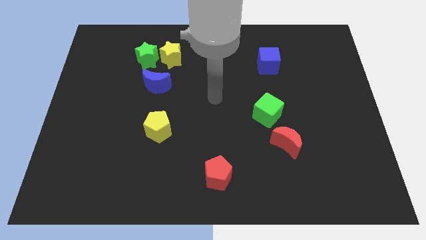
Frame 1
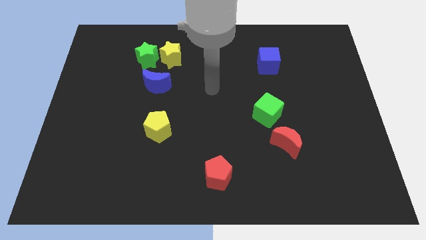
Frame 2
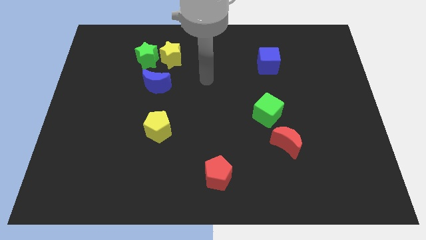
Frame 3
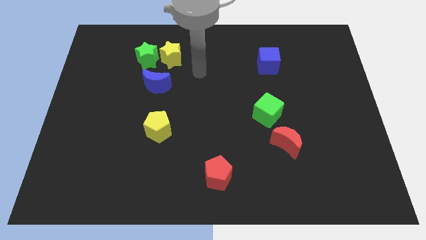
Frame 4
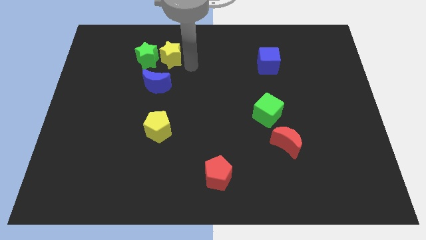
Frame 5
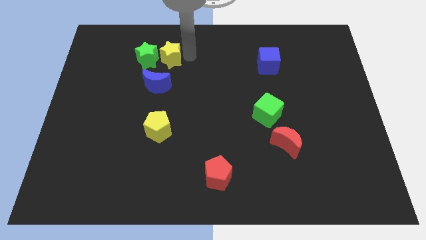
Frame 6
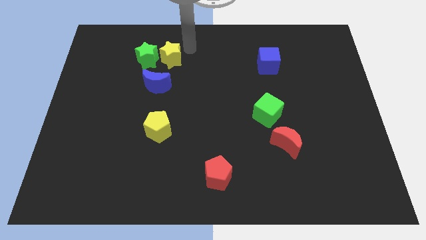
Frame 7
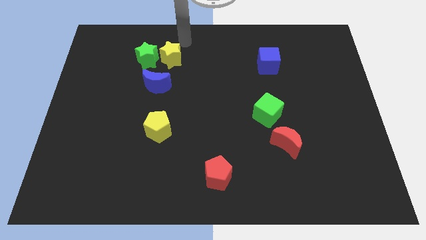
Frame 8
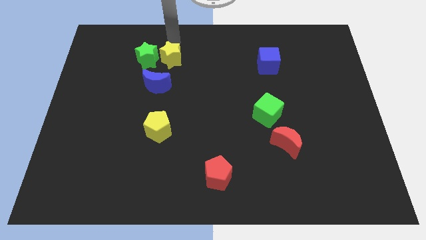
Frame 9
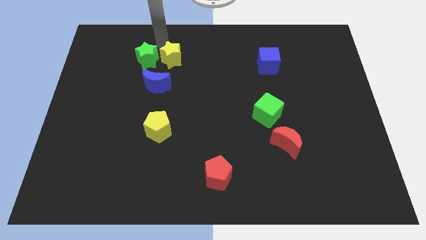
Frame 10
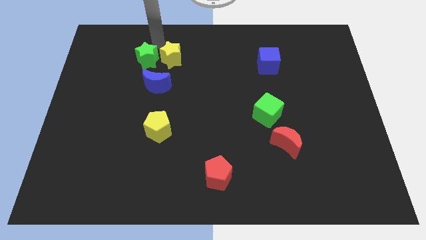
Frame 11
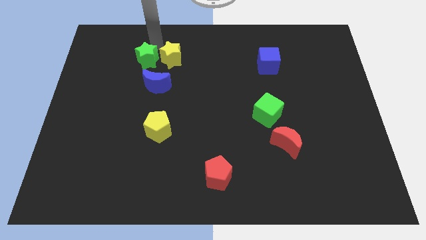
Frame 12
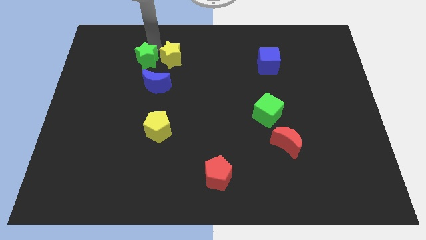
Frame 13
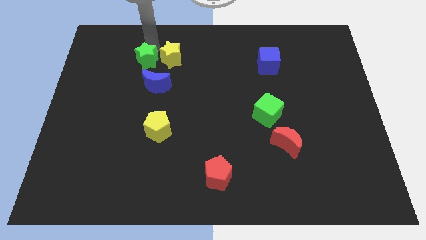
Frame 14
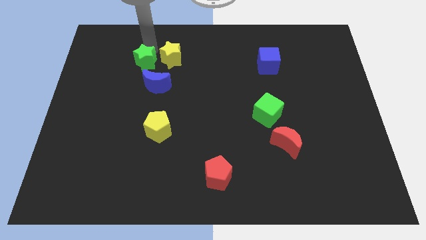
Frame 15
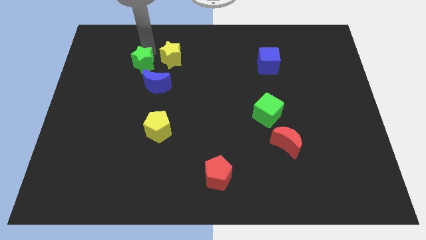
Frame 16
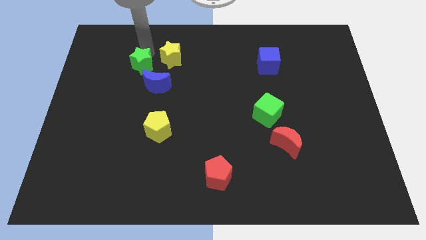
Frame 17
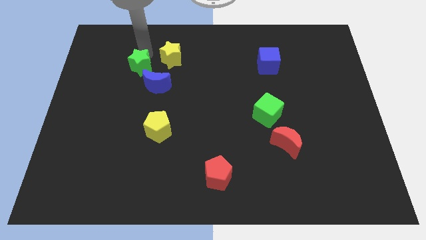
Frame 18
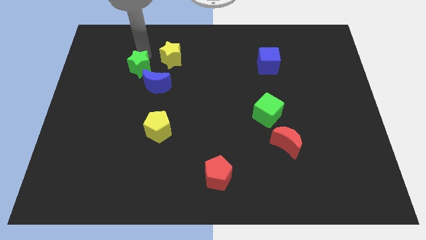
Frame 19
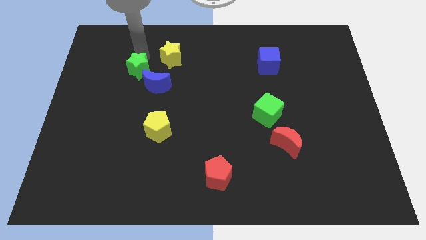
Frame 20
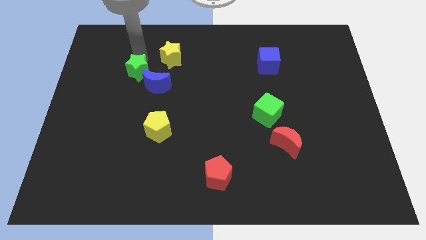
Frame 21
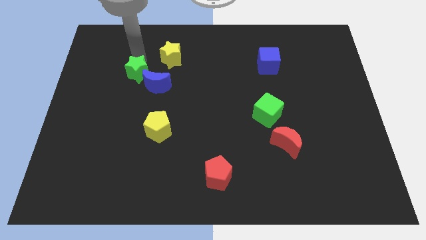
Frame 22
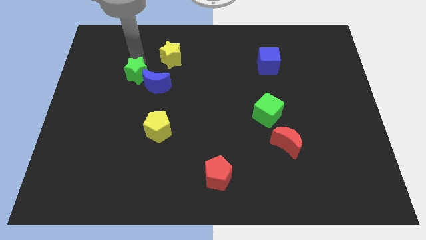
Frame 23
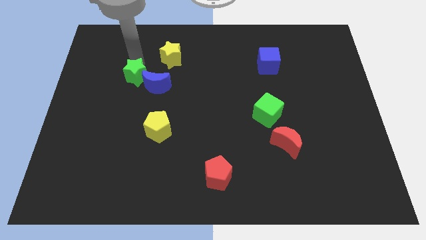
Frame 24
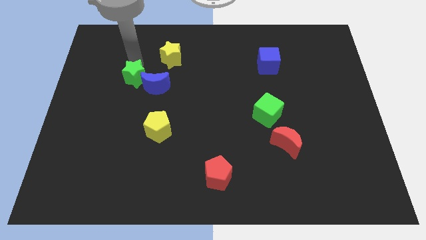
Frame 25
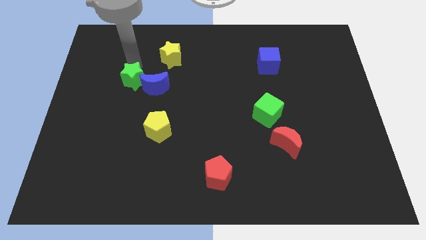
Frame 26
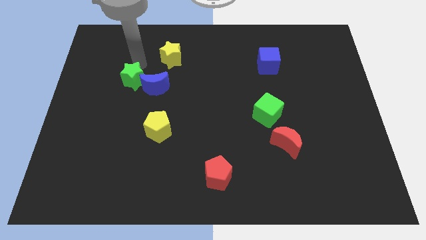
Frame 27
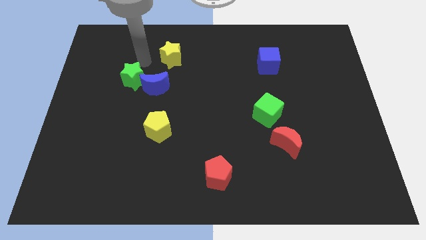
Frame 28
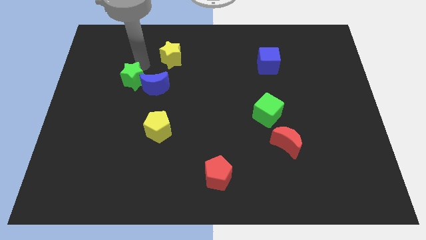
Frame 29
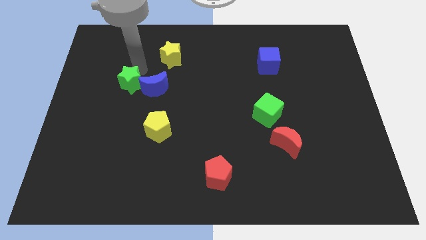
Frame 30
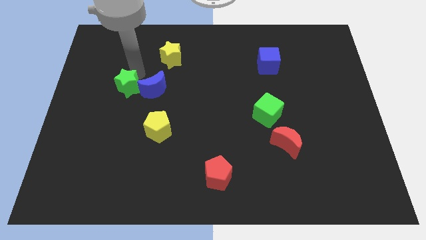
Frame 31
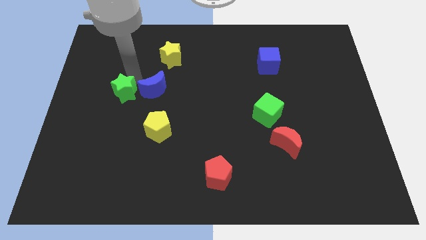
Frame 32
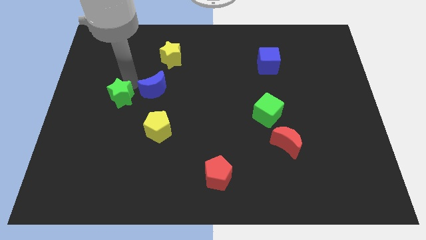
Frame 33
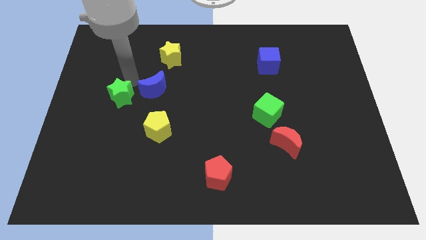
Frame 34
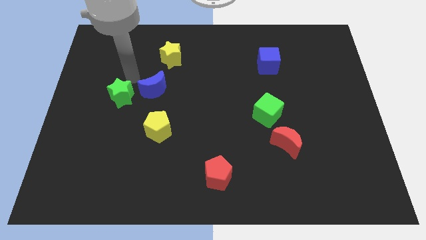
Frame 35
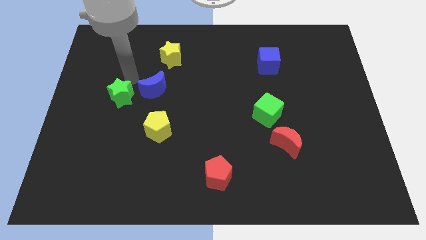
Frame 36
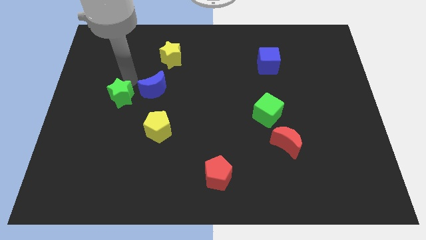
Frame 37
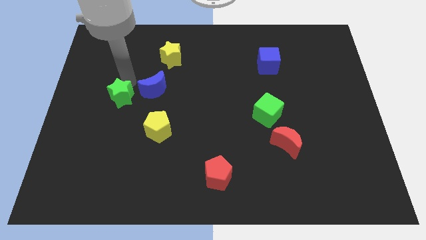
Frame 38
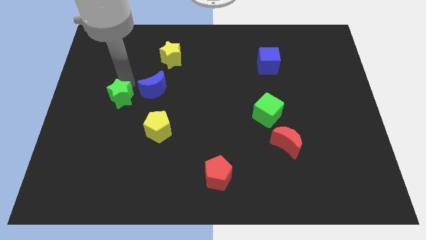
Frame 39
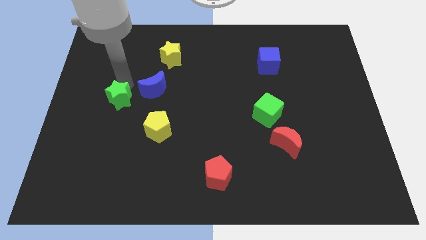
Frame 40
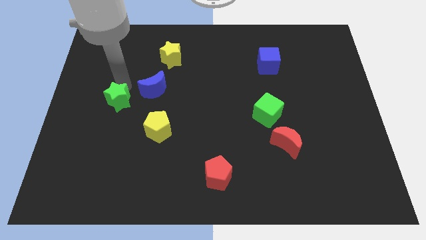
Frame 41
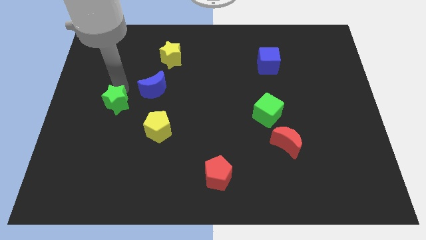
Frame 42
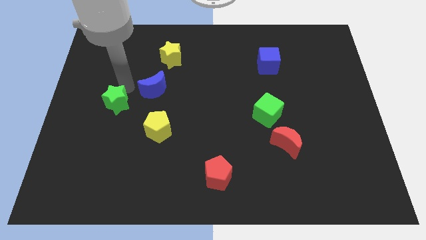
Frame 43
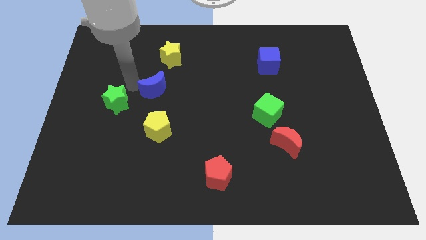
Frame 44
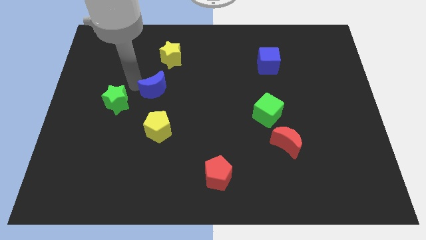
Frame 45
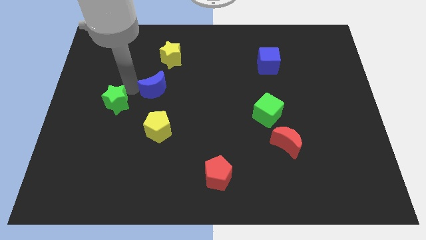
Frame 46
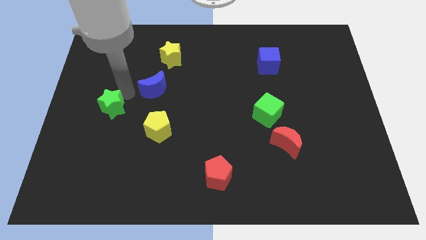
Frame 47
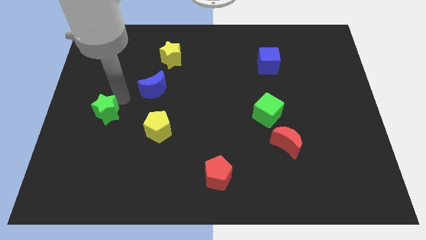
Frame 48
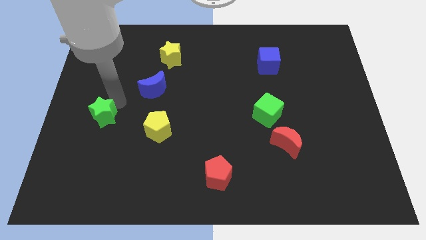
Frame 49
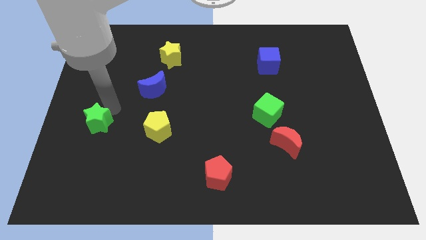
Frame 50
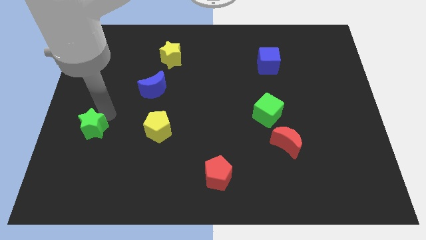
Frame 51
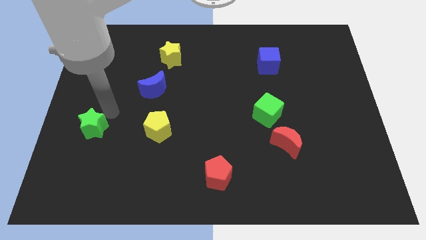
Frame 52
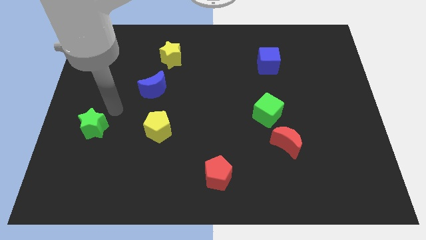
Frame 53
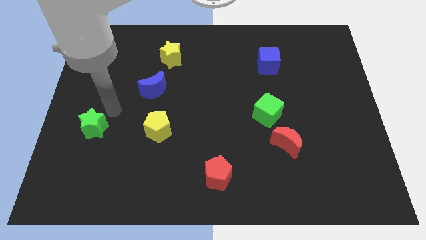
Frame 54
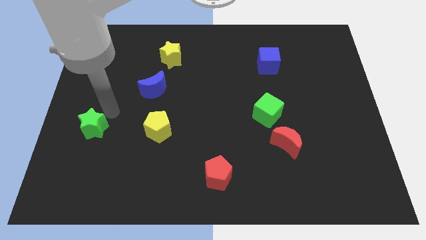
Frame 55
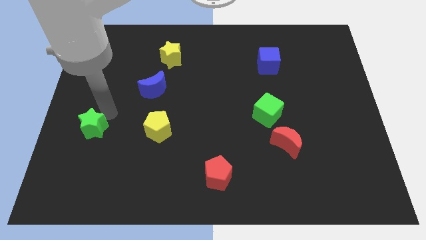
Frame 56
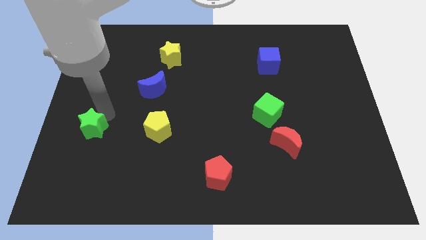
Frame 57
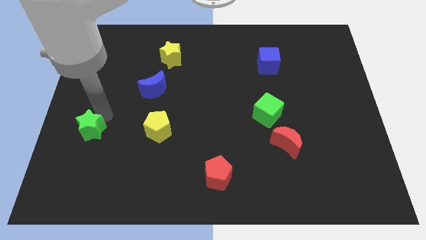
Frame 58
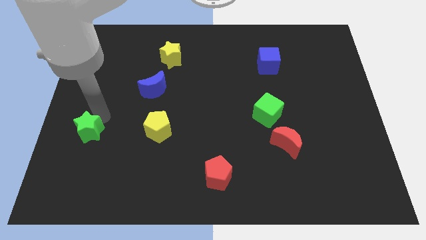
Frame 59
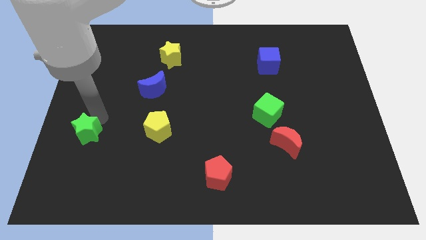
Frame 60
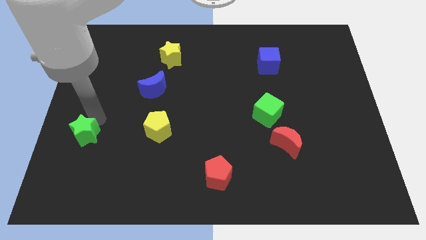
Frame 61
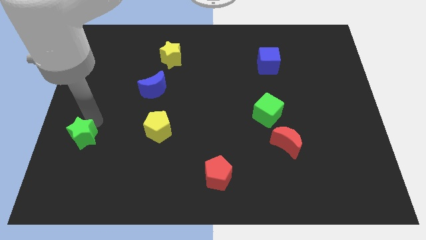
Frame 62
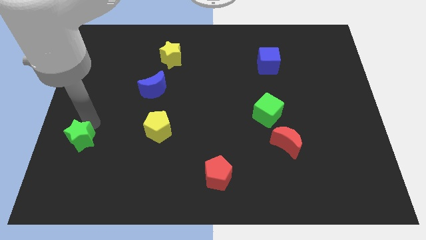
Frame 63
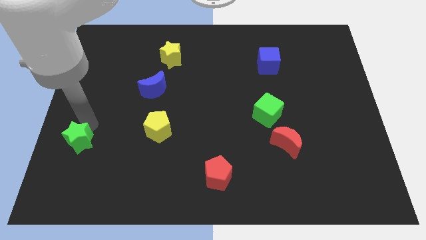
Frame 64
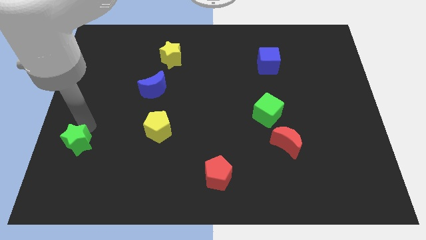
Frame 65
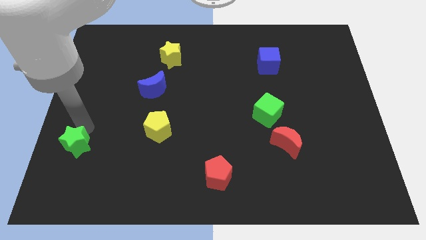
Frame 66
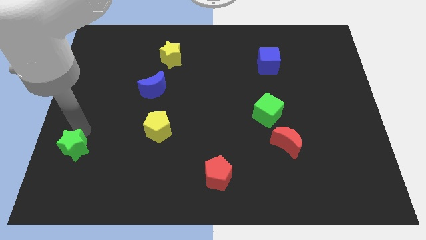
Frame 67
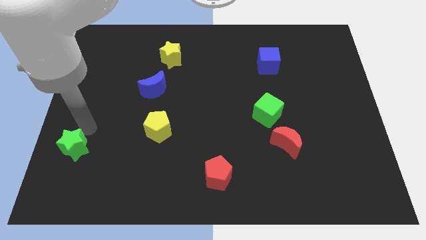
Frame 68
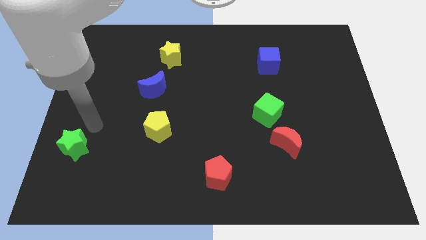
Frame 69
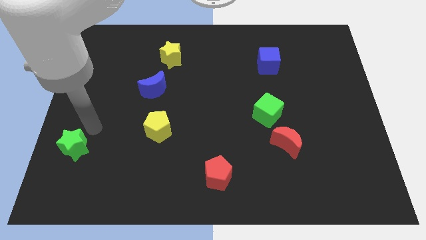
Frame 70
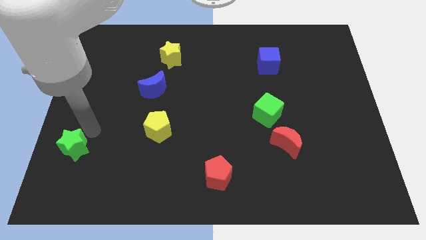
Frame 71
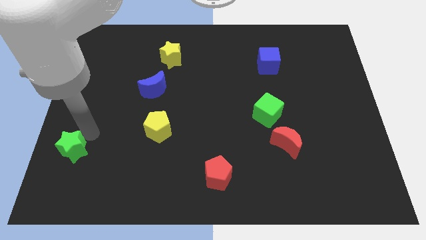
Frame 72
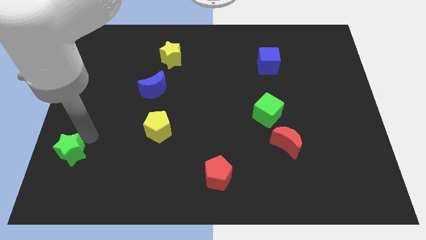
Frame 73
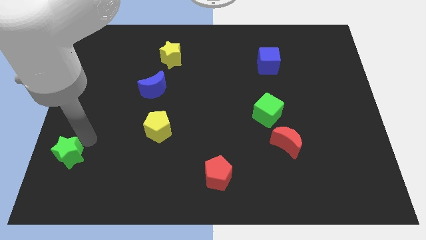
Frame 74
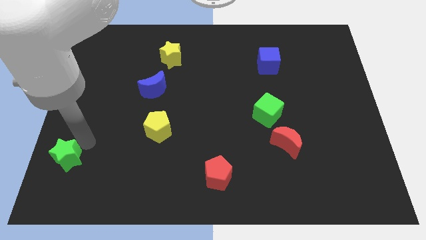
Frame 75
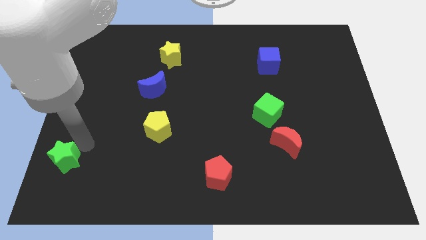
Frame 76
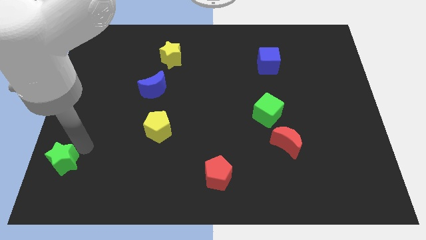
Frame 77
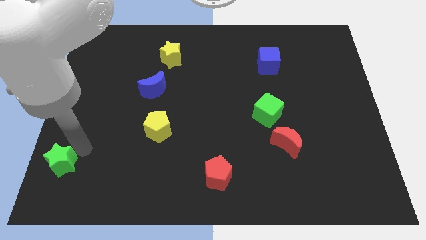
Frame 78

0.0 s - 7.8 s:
slide the green star to the bottom left corner
